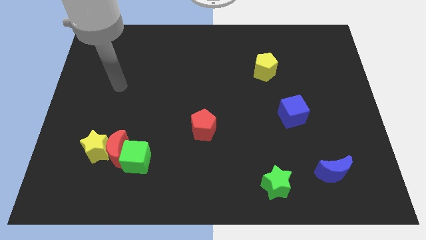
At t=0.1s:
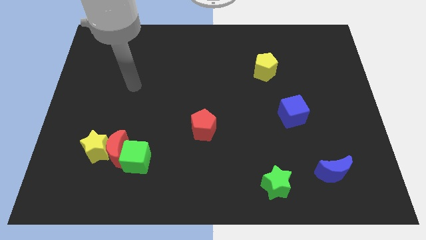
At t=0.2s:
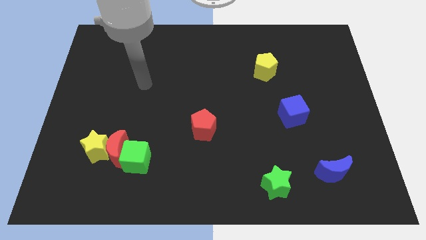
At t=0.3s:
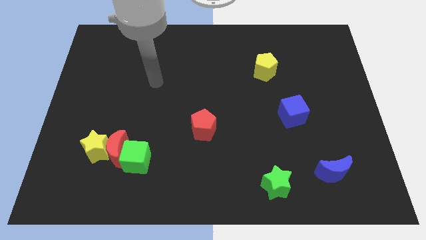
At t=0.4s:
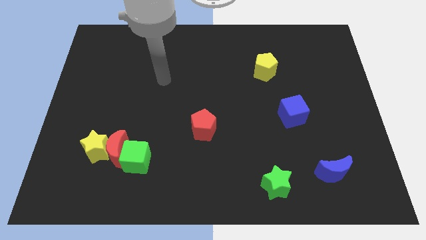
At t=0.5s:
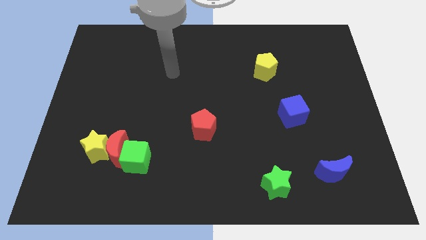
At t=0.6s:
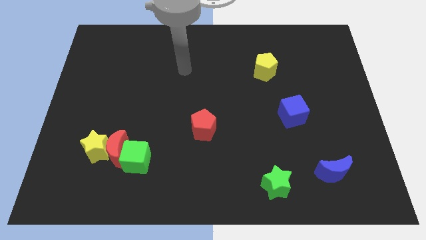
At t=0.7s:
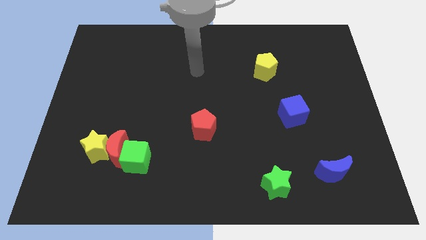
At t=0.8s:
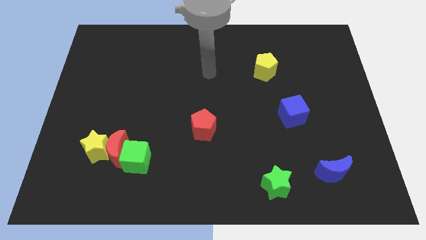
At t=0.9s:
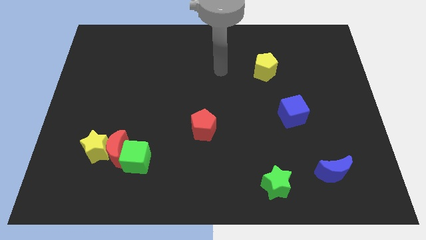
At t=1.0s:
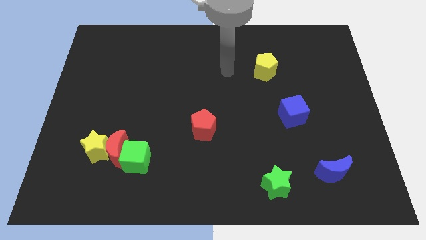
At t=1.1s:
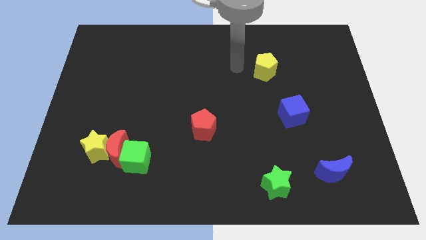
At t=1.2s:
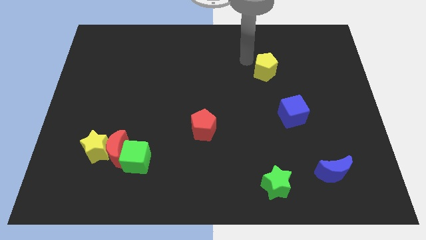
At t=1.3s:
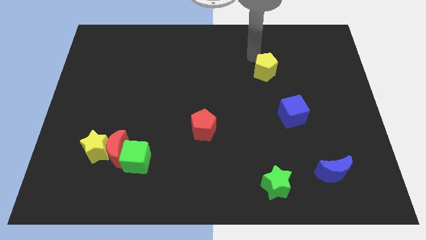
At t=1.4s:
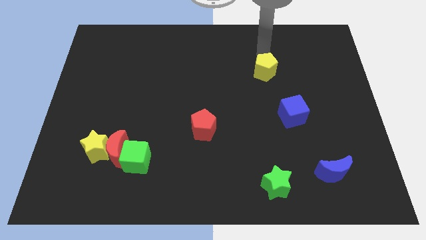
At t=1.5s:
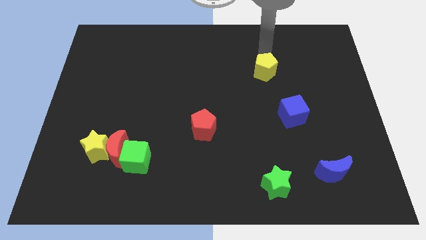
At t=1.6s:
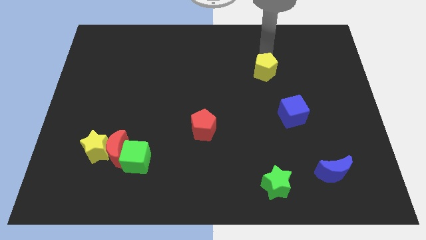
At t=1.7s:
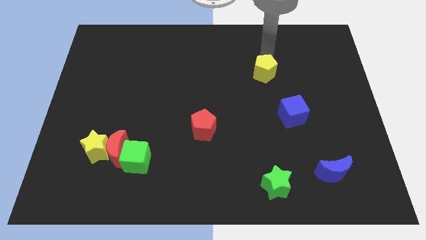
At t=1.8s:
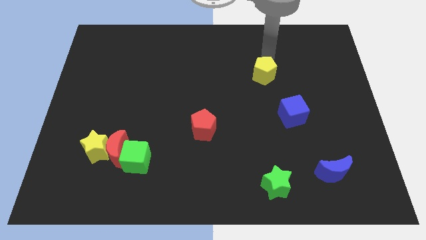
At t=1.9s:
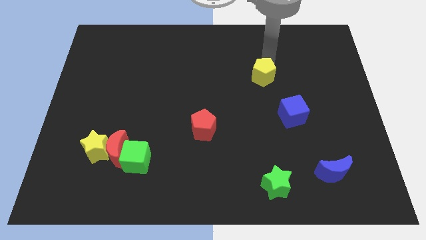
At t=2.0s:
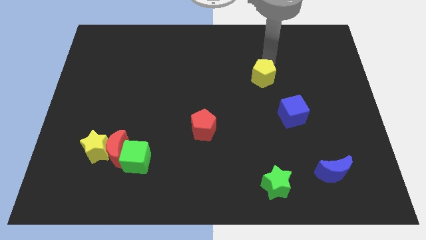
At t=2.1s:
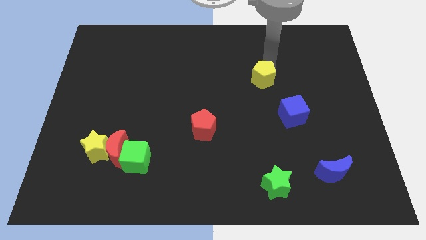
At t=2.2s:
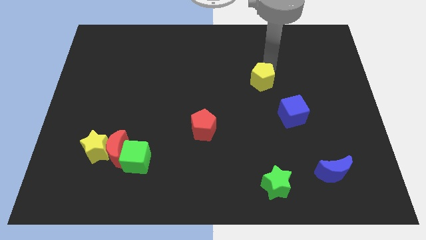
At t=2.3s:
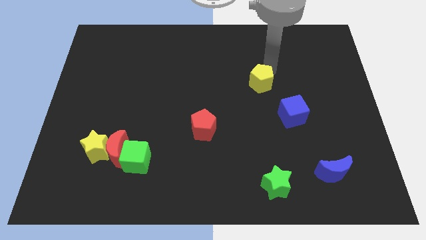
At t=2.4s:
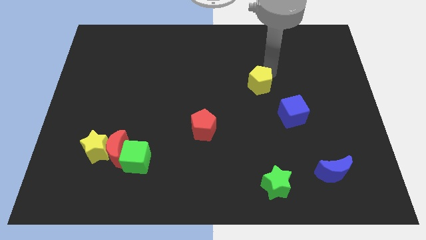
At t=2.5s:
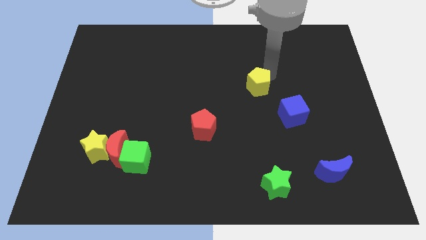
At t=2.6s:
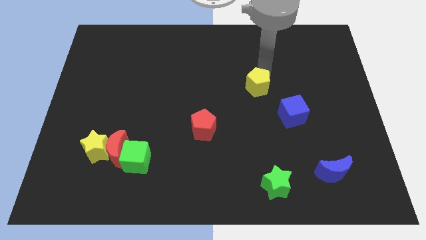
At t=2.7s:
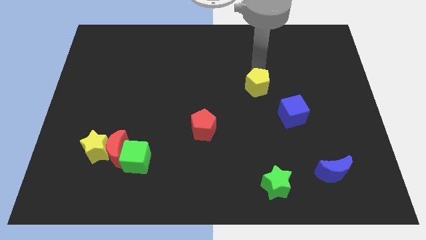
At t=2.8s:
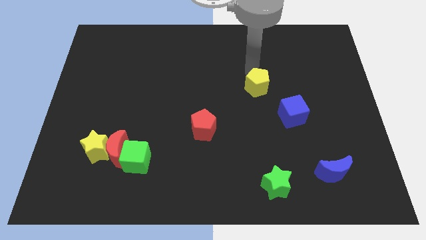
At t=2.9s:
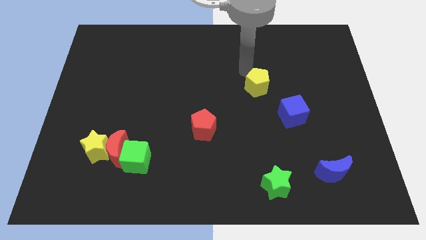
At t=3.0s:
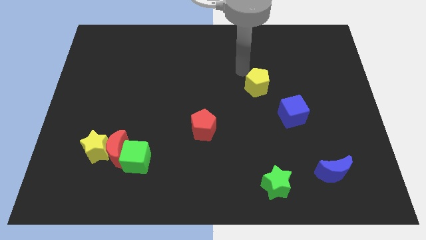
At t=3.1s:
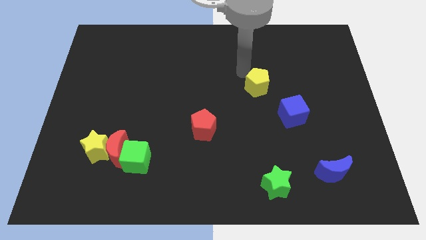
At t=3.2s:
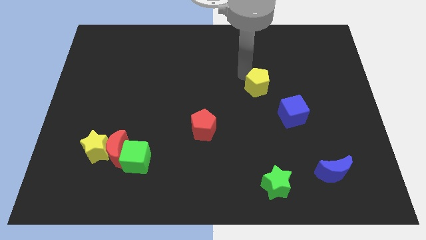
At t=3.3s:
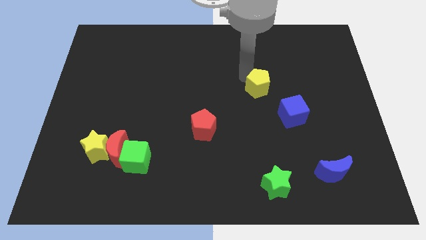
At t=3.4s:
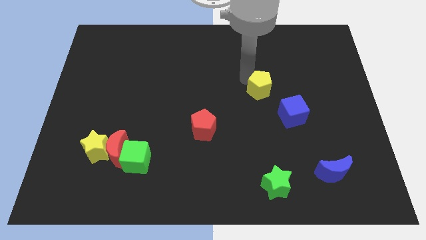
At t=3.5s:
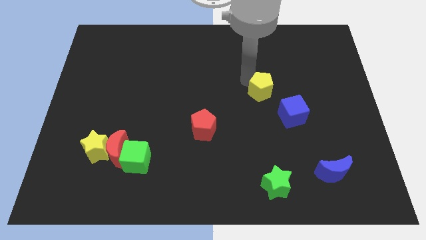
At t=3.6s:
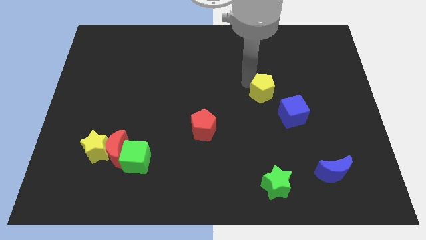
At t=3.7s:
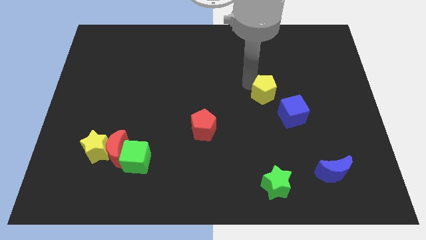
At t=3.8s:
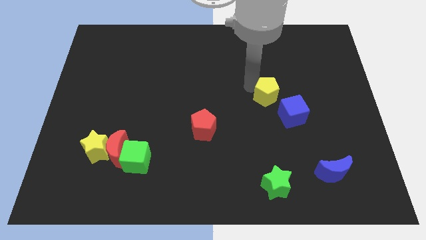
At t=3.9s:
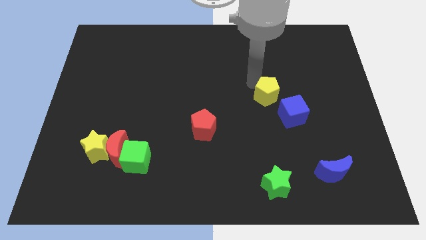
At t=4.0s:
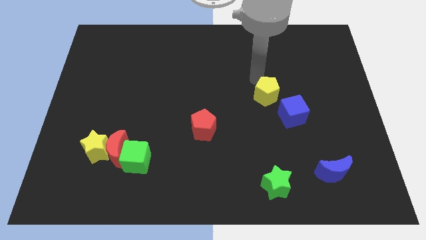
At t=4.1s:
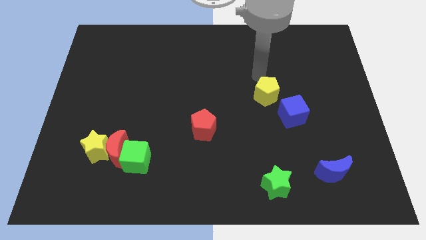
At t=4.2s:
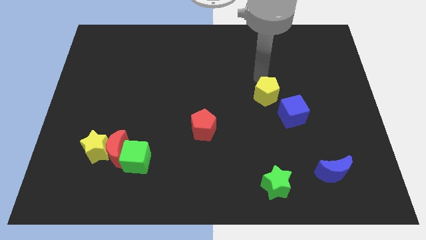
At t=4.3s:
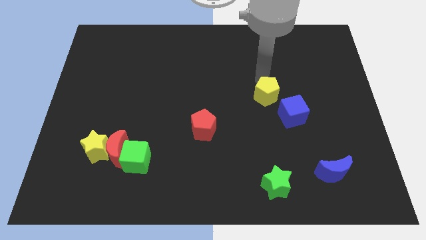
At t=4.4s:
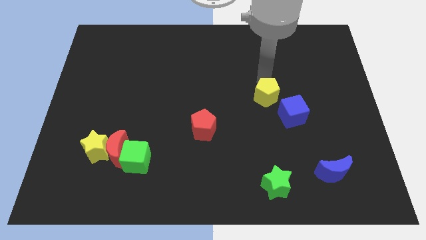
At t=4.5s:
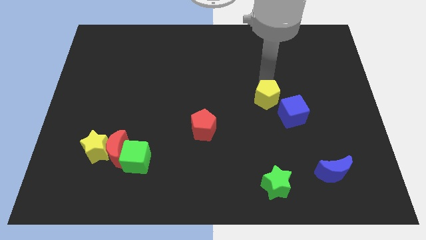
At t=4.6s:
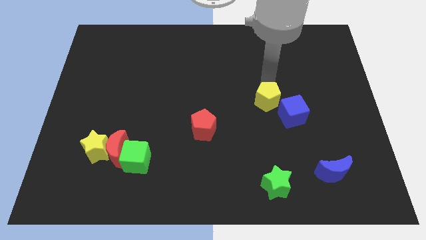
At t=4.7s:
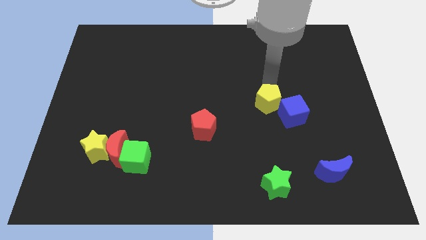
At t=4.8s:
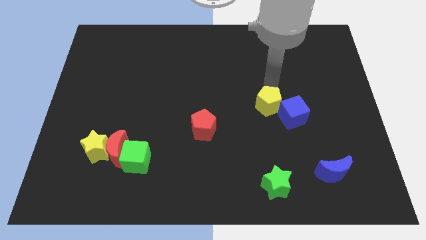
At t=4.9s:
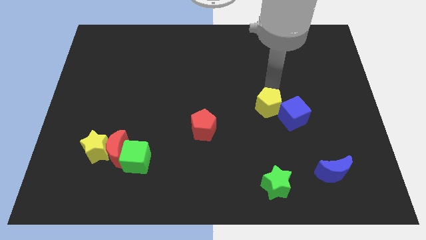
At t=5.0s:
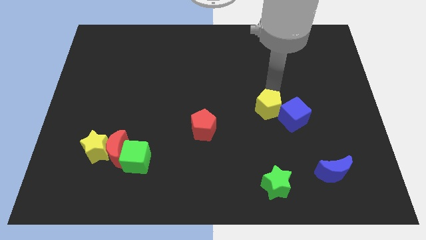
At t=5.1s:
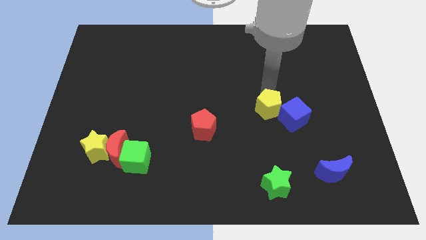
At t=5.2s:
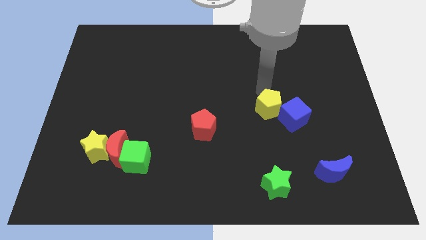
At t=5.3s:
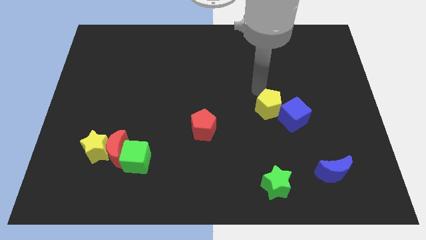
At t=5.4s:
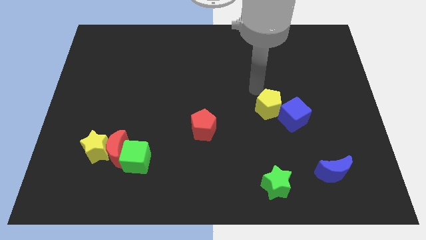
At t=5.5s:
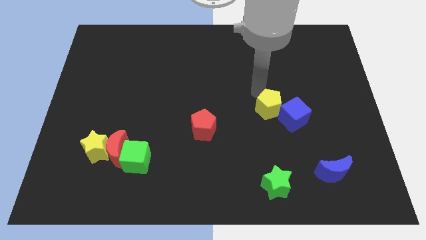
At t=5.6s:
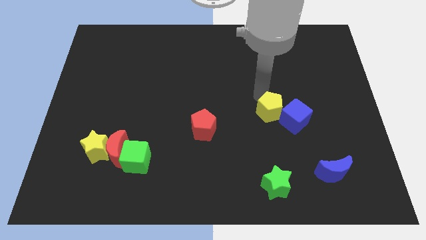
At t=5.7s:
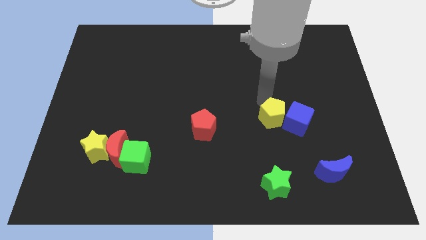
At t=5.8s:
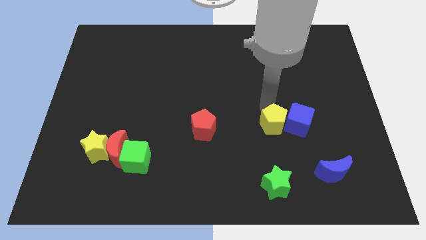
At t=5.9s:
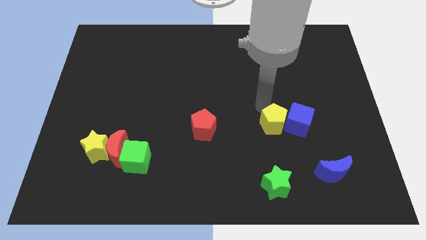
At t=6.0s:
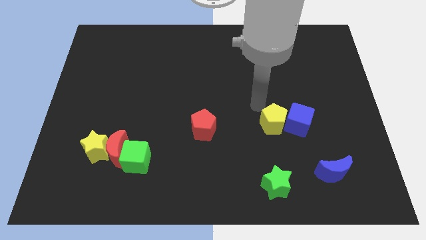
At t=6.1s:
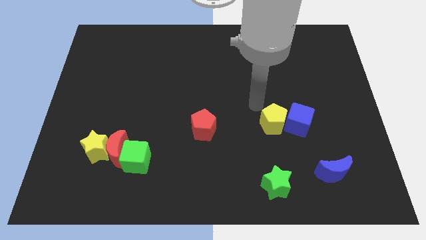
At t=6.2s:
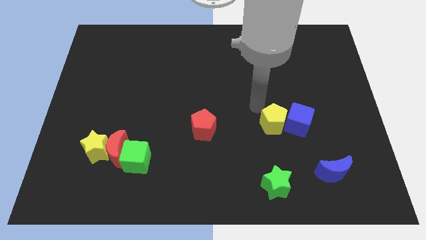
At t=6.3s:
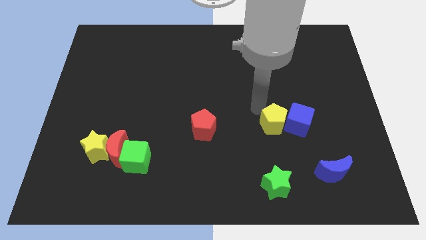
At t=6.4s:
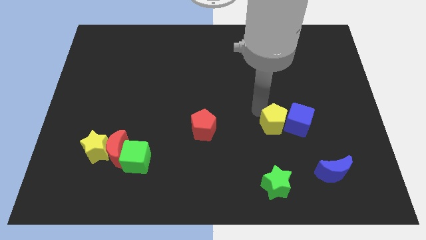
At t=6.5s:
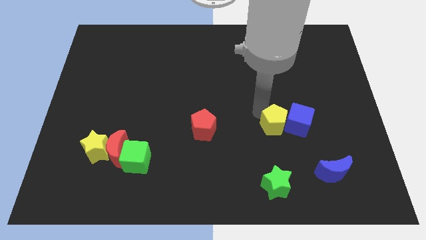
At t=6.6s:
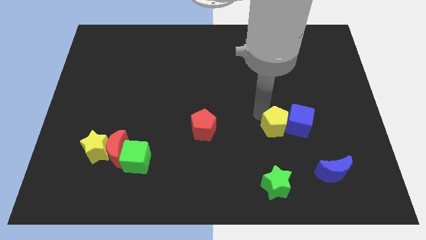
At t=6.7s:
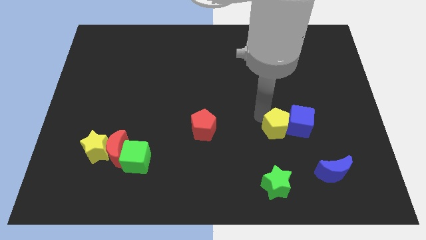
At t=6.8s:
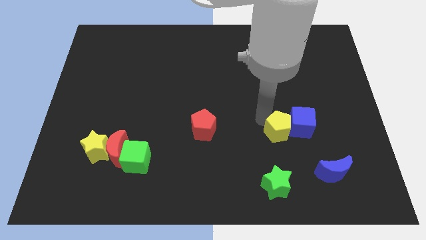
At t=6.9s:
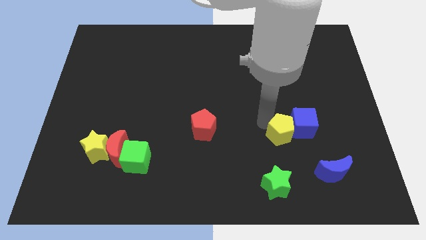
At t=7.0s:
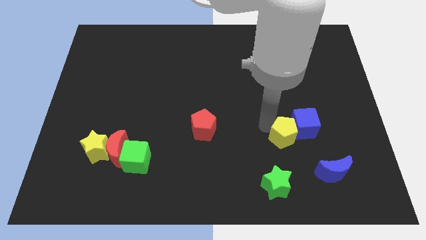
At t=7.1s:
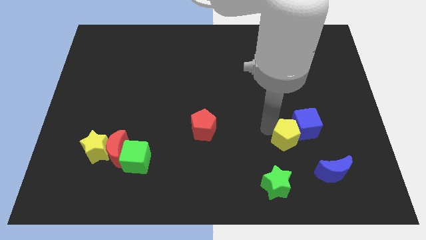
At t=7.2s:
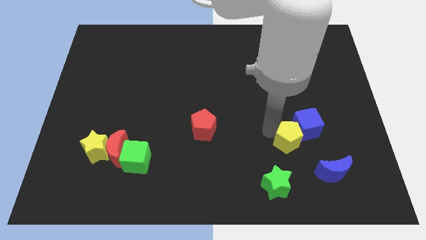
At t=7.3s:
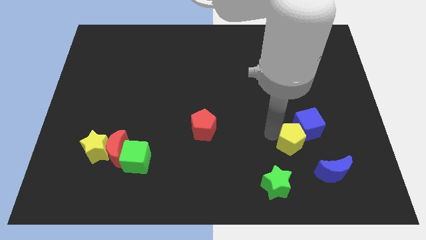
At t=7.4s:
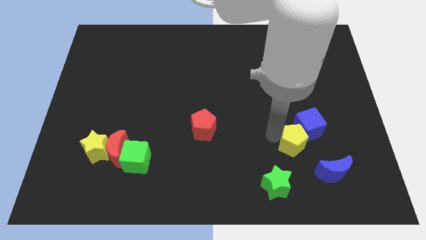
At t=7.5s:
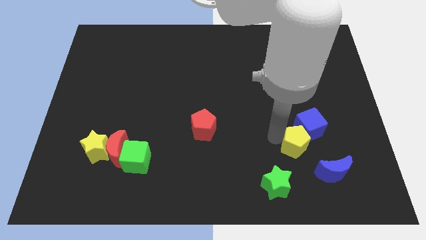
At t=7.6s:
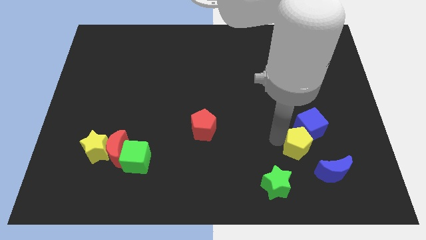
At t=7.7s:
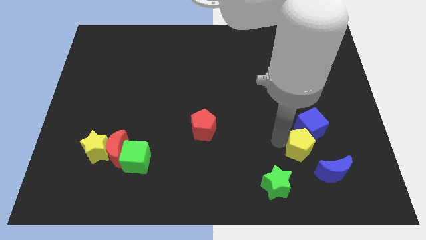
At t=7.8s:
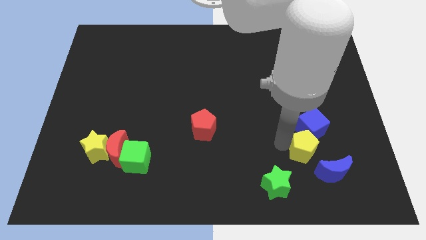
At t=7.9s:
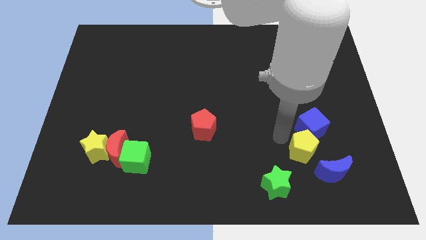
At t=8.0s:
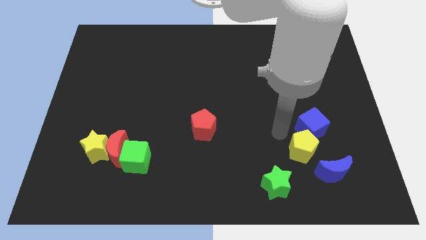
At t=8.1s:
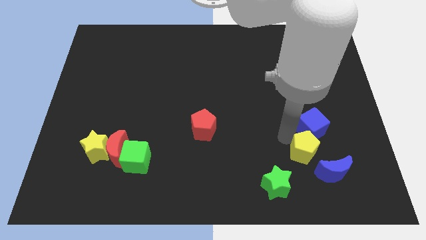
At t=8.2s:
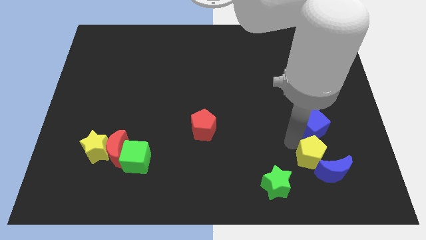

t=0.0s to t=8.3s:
slide the yellow pentagon to the blue moon

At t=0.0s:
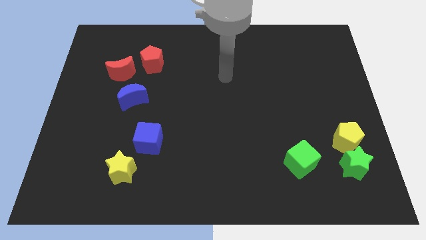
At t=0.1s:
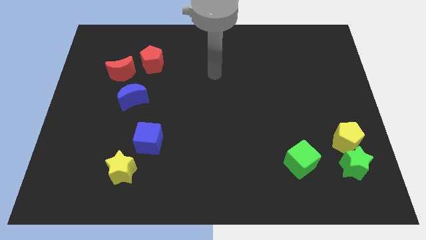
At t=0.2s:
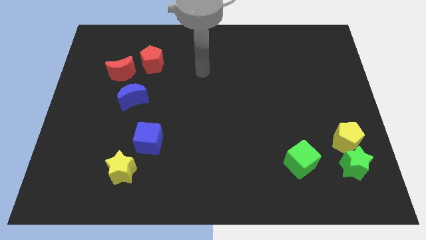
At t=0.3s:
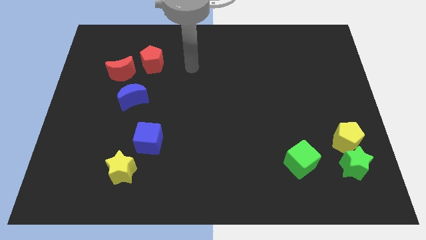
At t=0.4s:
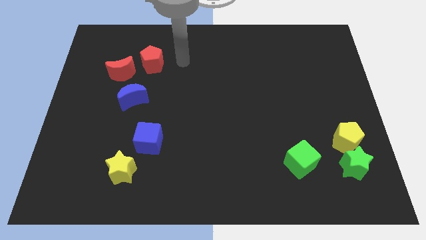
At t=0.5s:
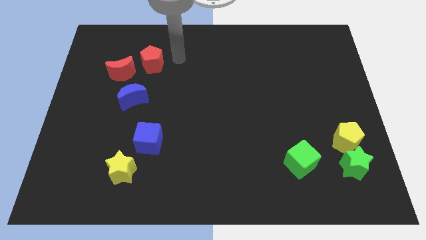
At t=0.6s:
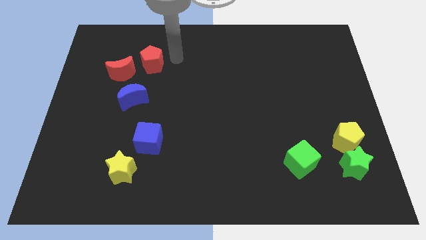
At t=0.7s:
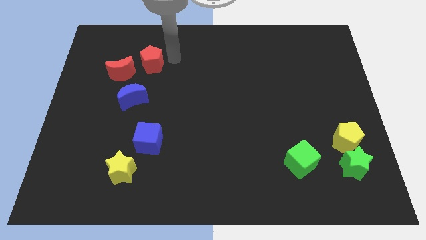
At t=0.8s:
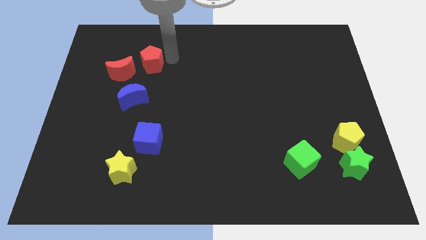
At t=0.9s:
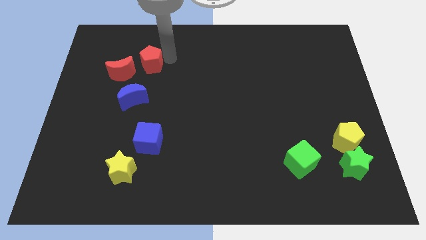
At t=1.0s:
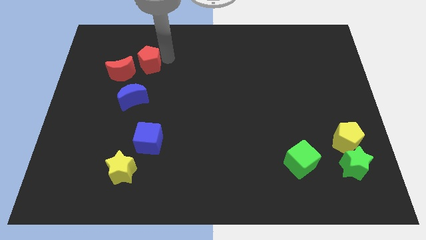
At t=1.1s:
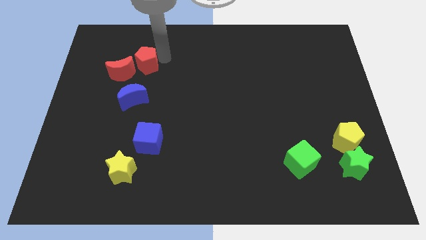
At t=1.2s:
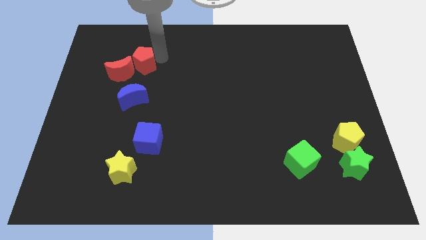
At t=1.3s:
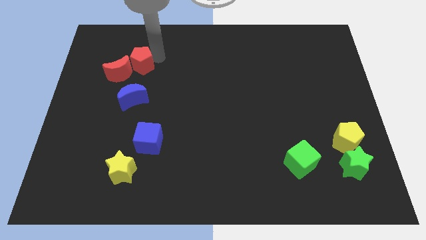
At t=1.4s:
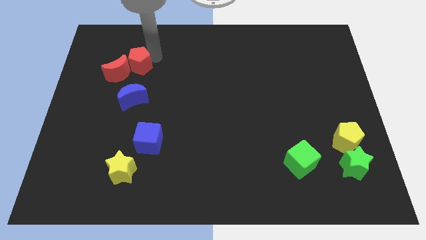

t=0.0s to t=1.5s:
move the red pentagon to the red moon
